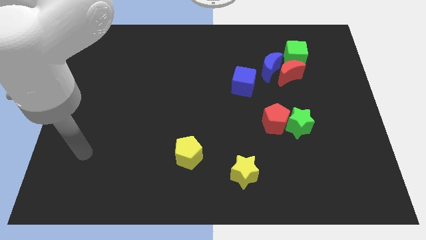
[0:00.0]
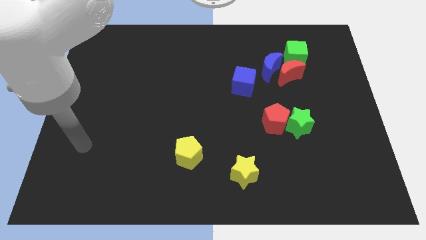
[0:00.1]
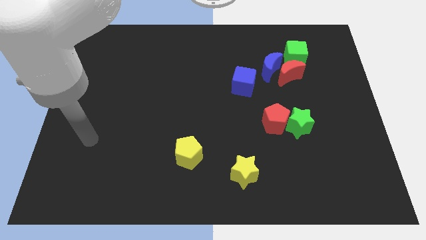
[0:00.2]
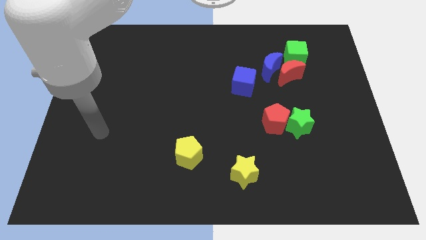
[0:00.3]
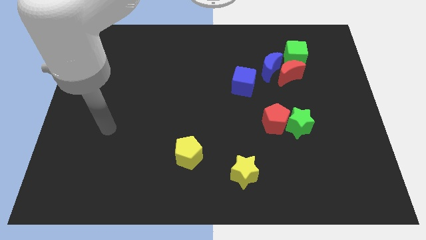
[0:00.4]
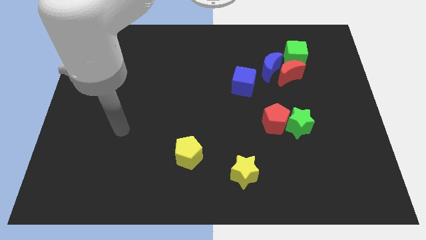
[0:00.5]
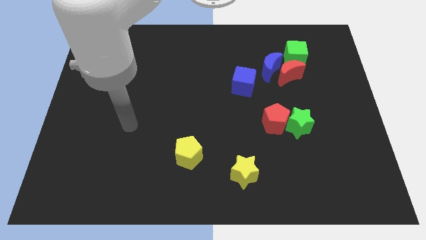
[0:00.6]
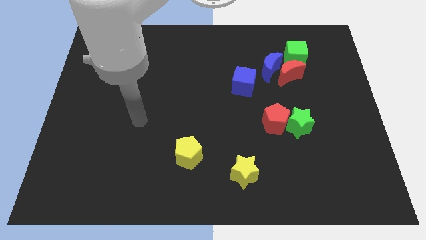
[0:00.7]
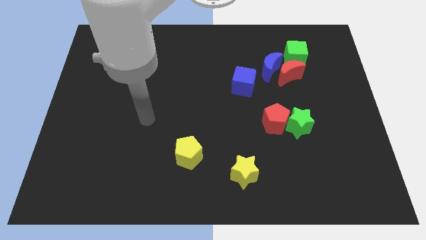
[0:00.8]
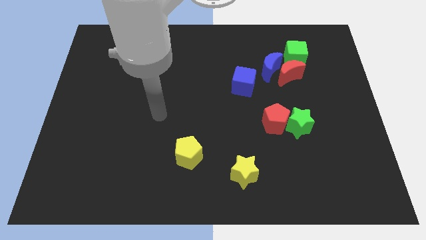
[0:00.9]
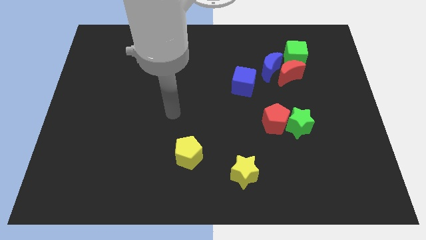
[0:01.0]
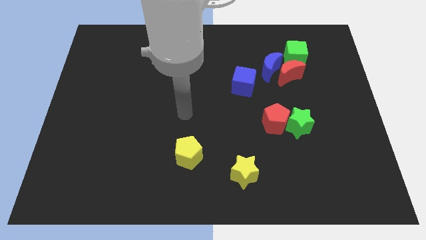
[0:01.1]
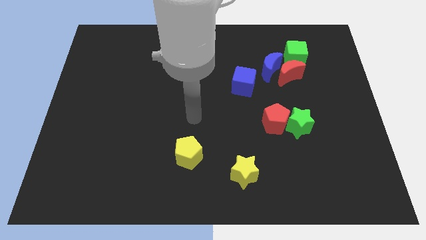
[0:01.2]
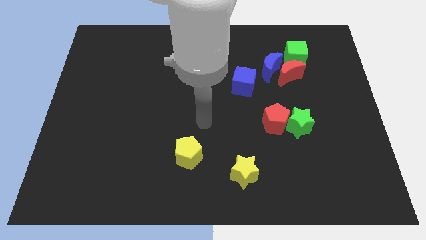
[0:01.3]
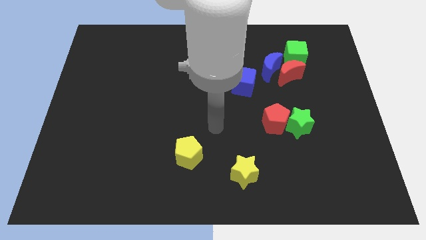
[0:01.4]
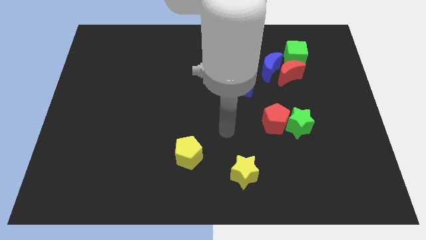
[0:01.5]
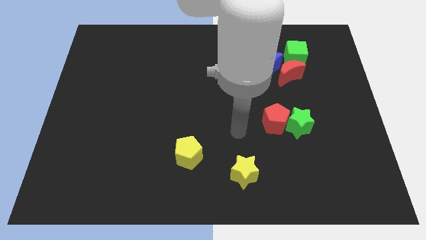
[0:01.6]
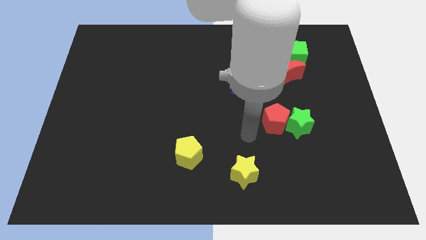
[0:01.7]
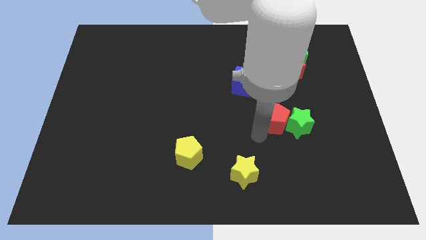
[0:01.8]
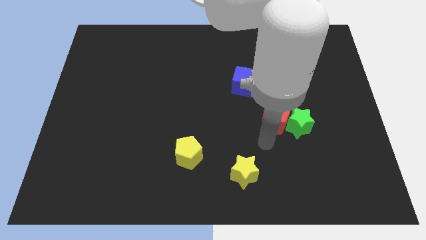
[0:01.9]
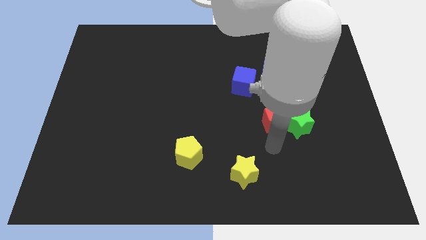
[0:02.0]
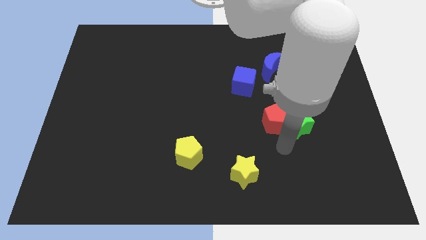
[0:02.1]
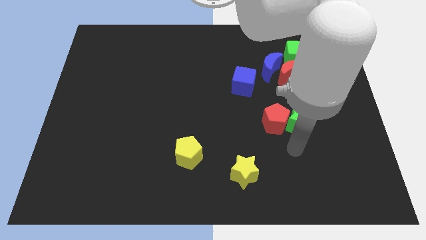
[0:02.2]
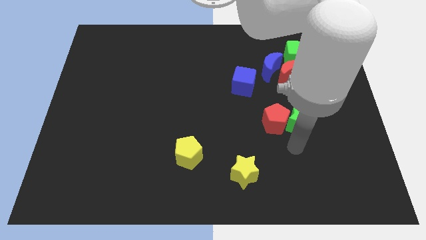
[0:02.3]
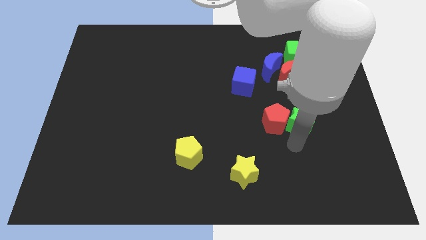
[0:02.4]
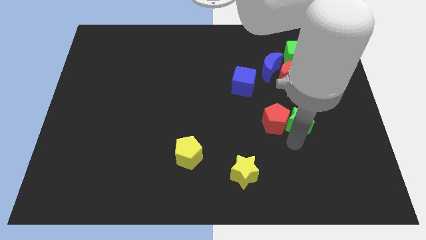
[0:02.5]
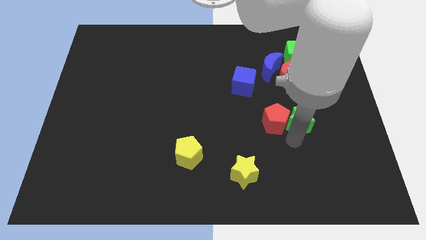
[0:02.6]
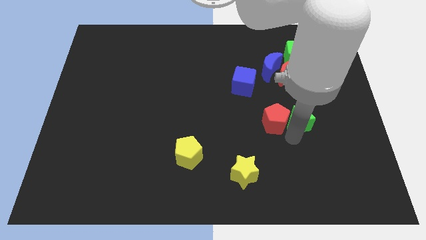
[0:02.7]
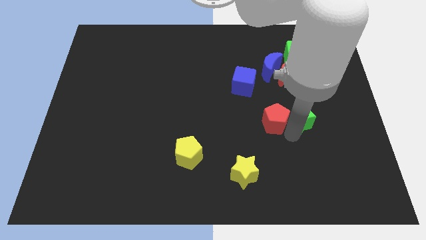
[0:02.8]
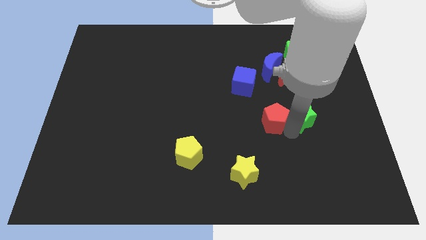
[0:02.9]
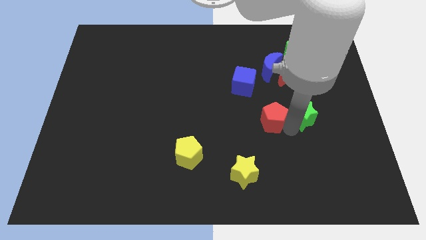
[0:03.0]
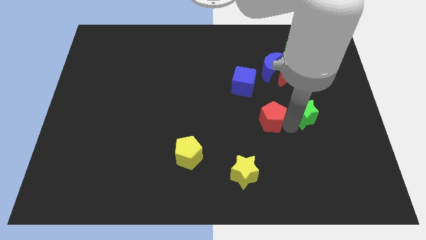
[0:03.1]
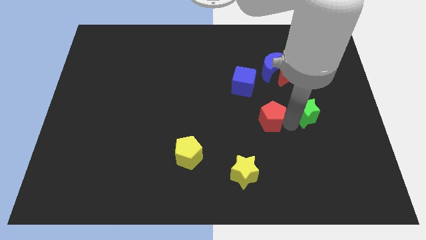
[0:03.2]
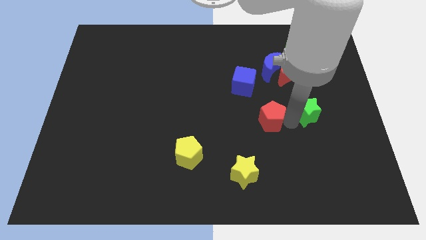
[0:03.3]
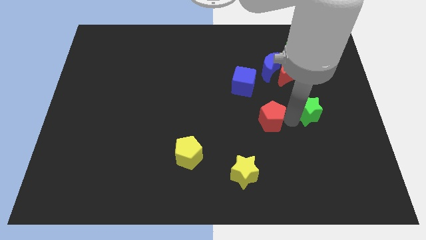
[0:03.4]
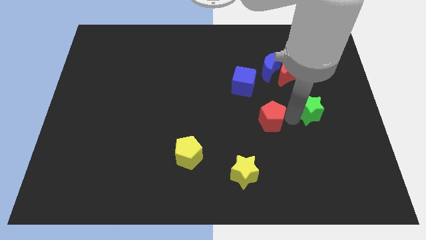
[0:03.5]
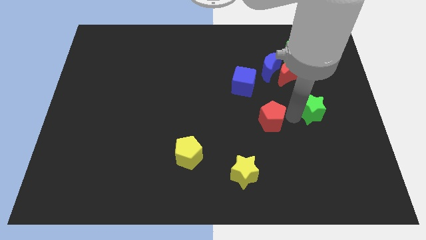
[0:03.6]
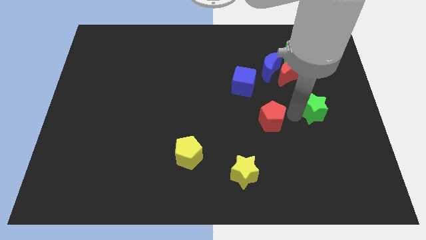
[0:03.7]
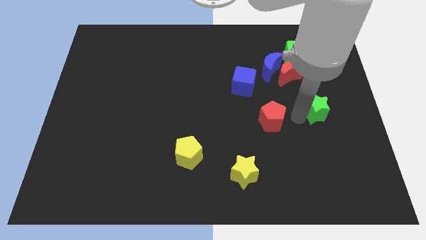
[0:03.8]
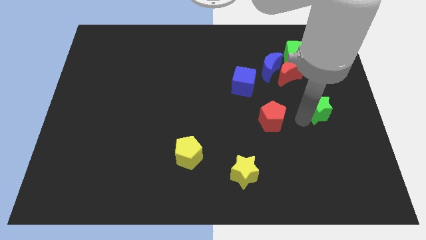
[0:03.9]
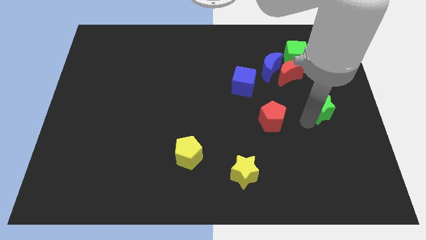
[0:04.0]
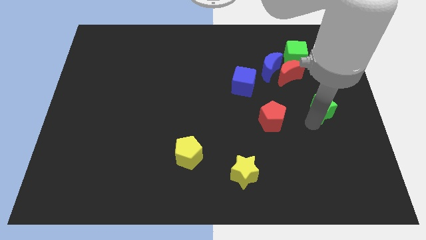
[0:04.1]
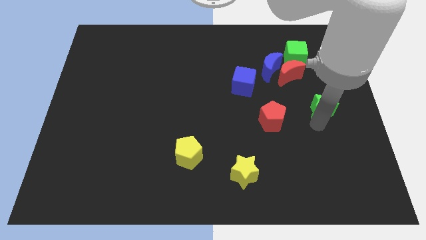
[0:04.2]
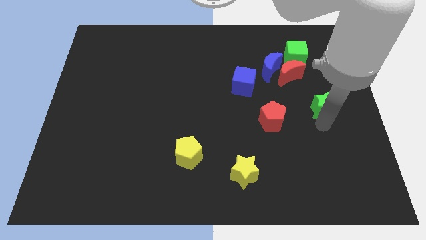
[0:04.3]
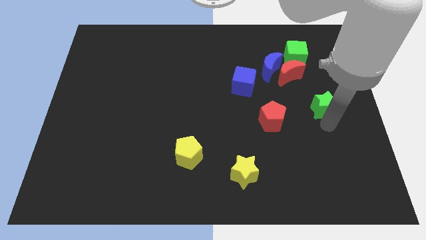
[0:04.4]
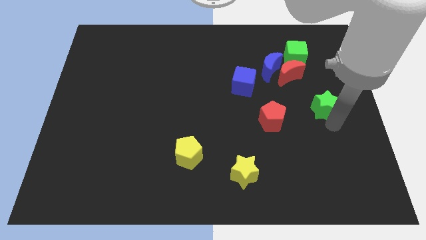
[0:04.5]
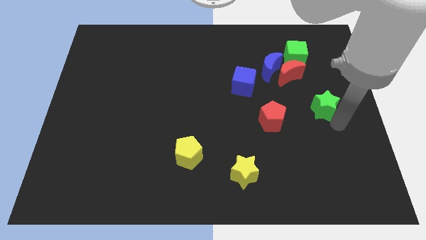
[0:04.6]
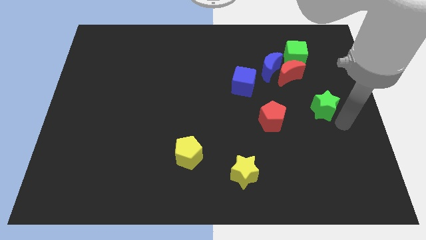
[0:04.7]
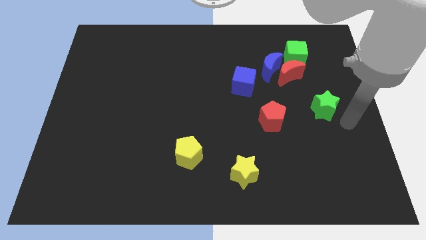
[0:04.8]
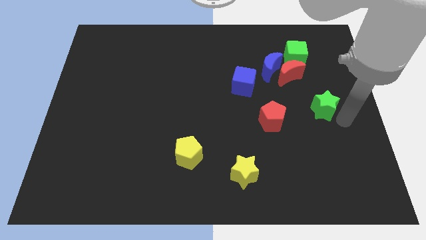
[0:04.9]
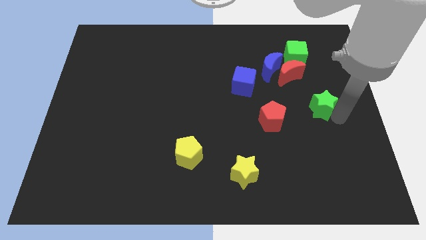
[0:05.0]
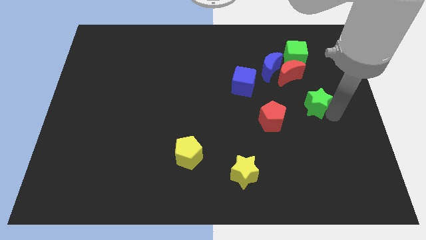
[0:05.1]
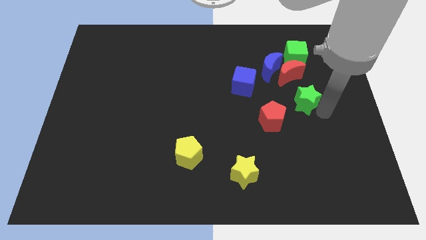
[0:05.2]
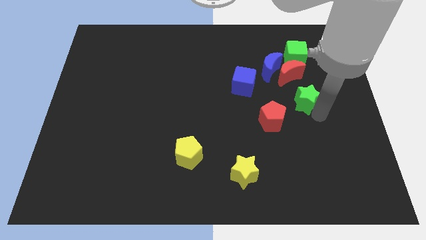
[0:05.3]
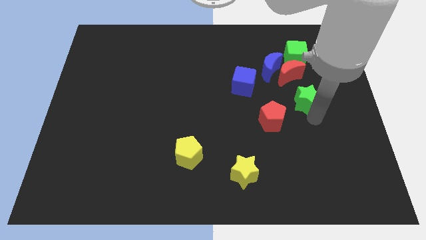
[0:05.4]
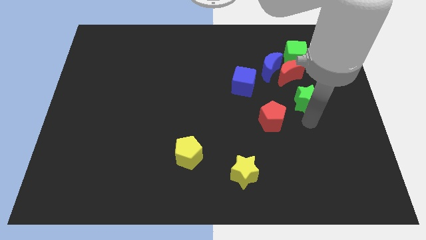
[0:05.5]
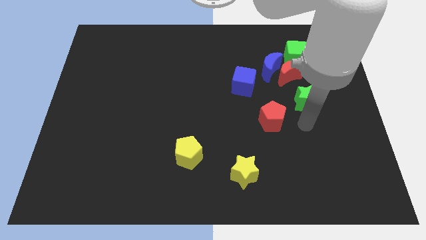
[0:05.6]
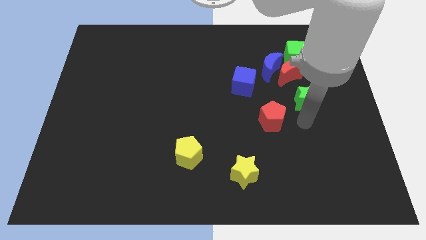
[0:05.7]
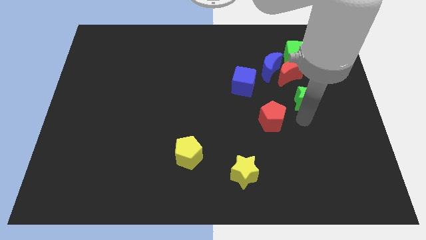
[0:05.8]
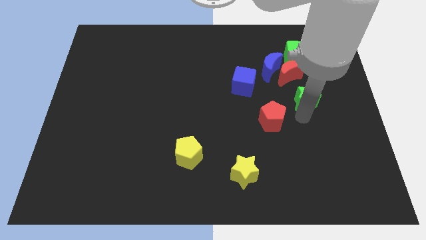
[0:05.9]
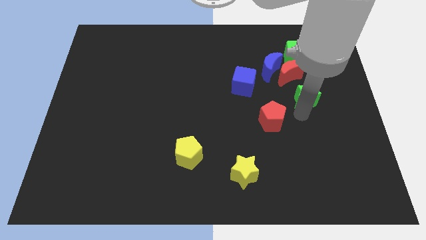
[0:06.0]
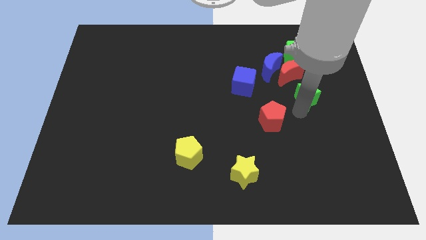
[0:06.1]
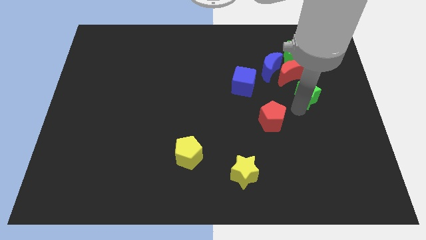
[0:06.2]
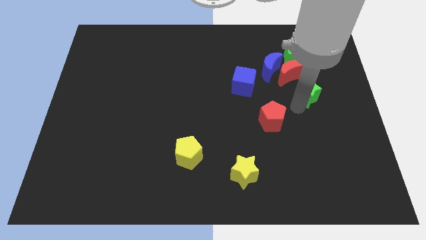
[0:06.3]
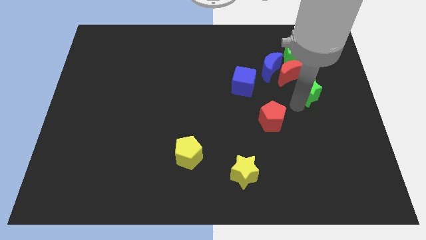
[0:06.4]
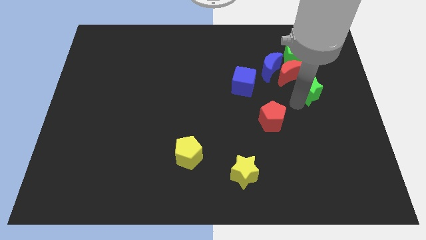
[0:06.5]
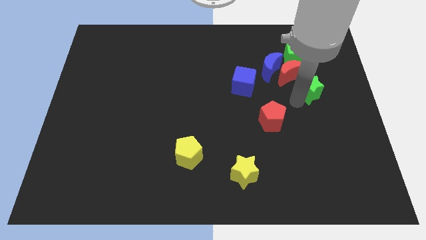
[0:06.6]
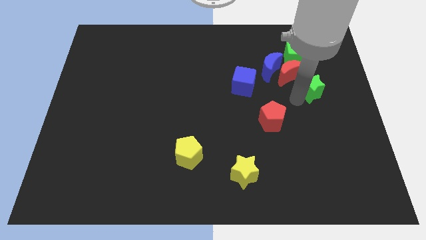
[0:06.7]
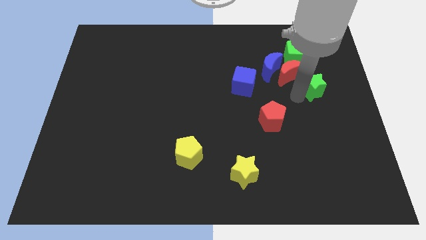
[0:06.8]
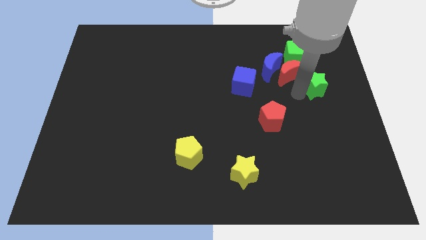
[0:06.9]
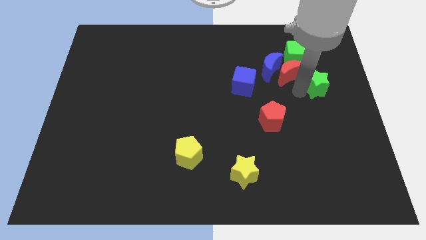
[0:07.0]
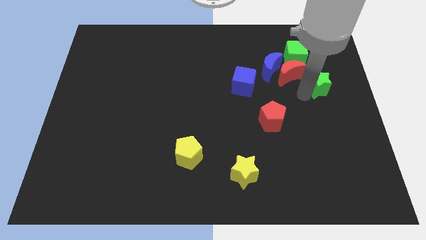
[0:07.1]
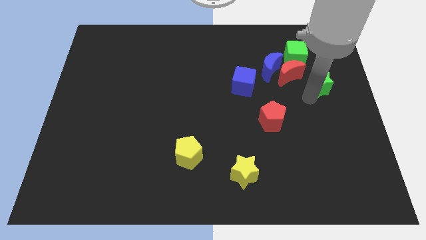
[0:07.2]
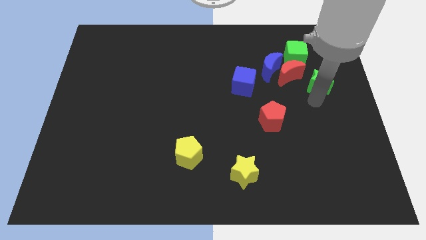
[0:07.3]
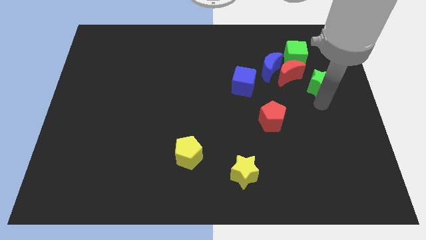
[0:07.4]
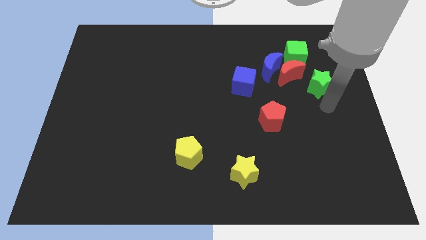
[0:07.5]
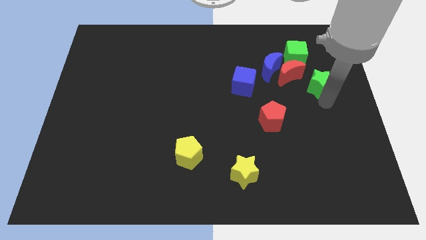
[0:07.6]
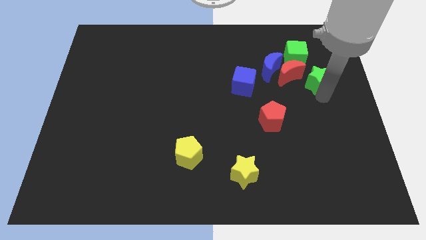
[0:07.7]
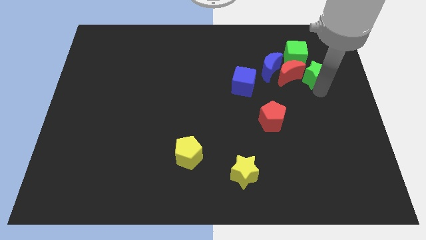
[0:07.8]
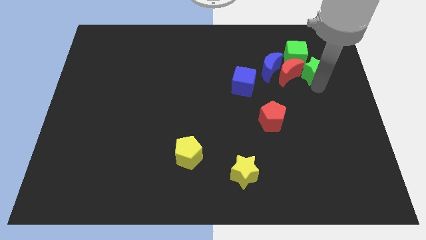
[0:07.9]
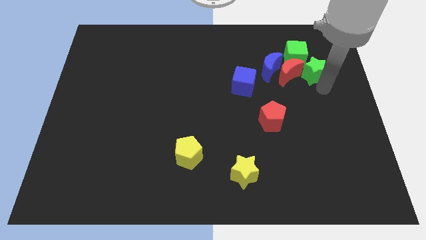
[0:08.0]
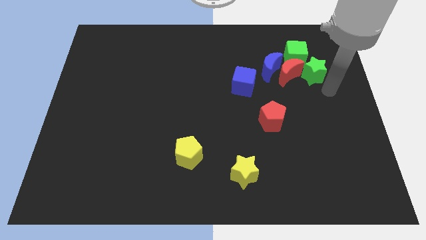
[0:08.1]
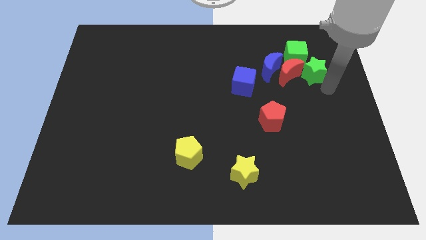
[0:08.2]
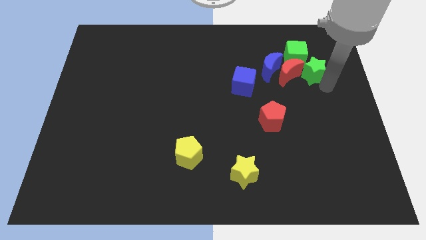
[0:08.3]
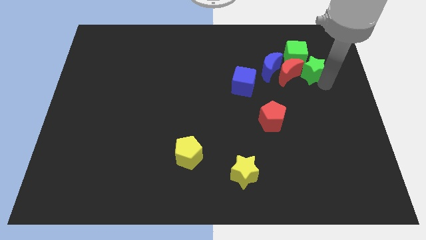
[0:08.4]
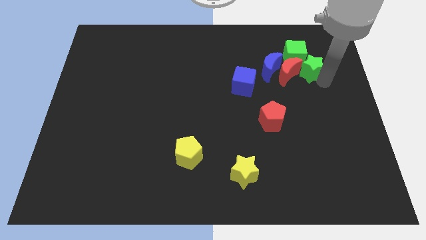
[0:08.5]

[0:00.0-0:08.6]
put the green star towards the green cube
